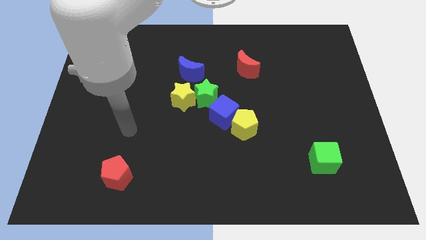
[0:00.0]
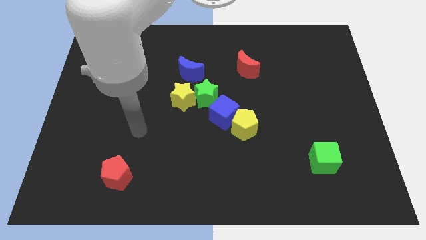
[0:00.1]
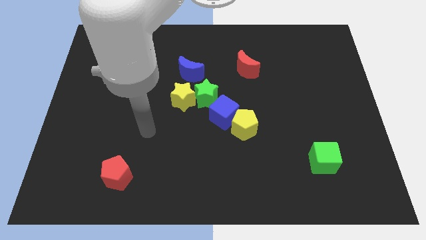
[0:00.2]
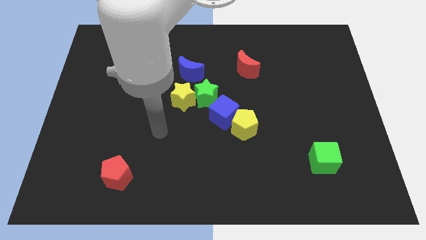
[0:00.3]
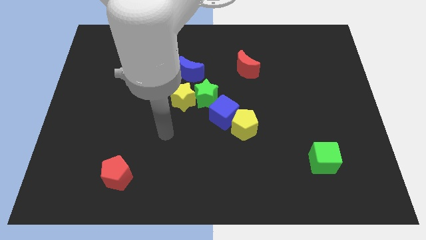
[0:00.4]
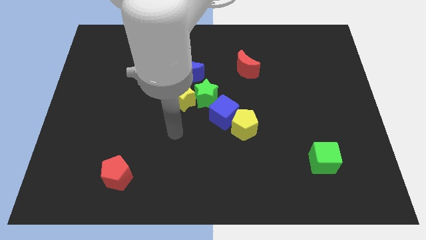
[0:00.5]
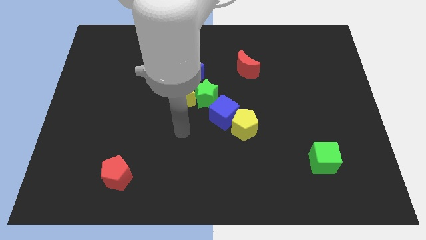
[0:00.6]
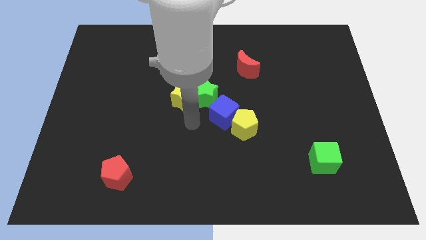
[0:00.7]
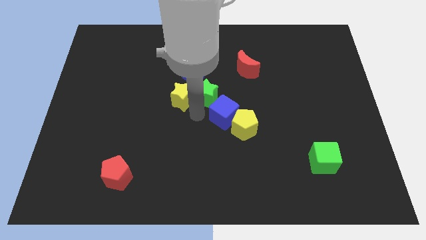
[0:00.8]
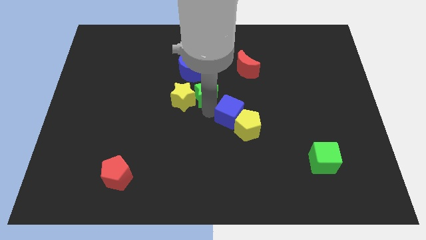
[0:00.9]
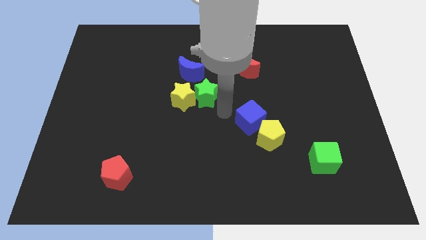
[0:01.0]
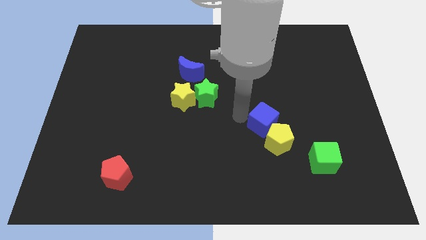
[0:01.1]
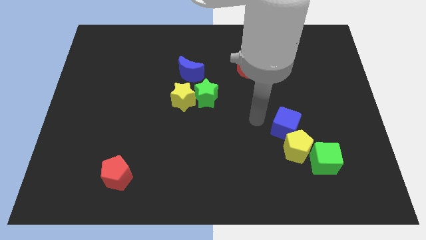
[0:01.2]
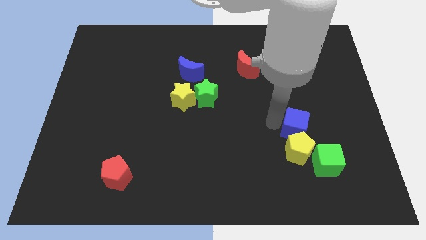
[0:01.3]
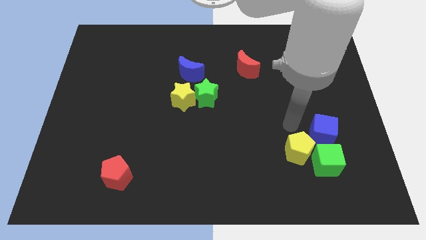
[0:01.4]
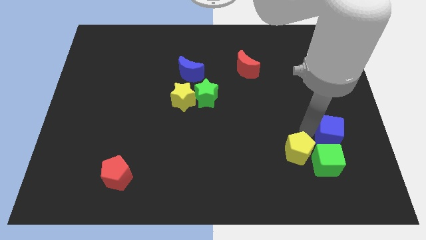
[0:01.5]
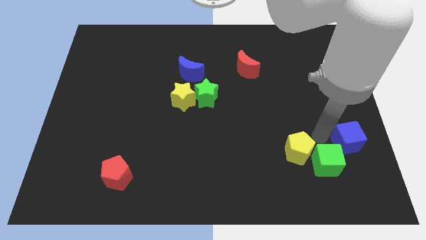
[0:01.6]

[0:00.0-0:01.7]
move the yellow pentagon away from the blue cube

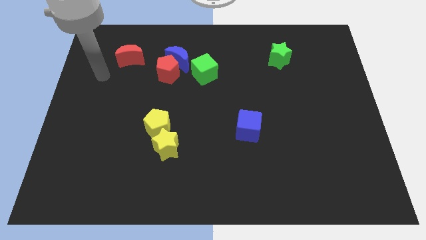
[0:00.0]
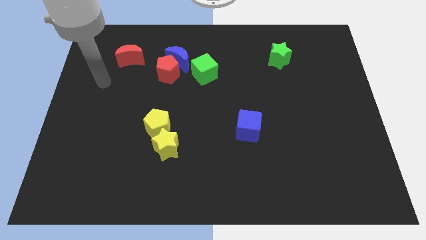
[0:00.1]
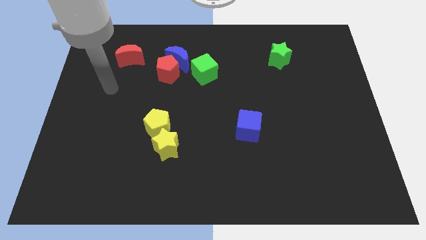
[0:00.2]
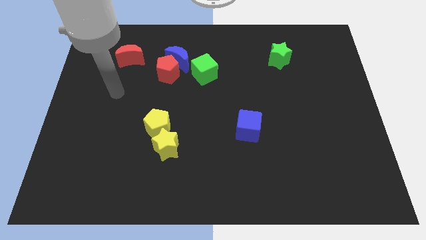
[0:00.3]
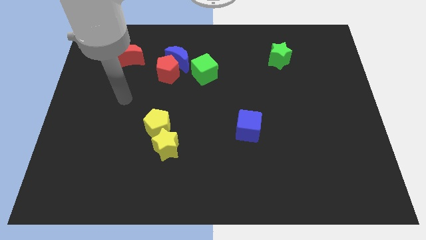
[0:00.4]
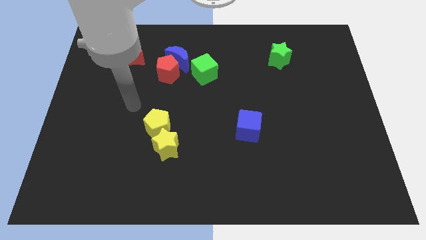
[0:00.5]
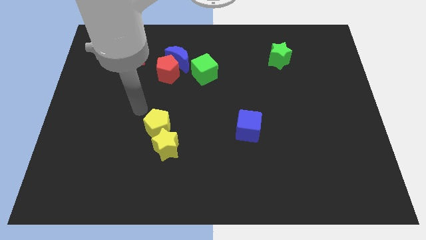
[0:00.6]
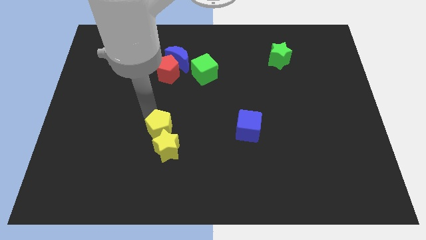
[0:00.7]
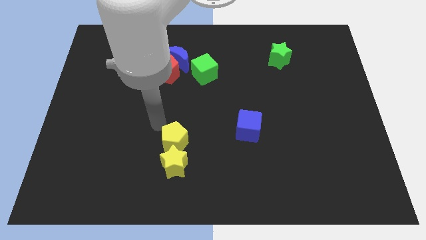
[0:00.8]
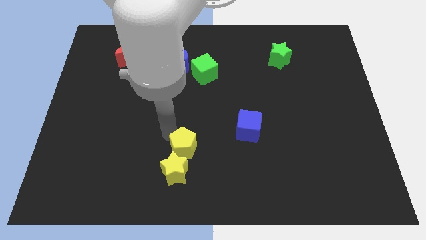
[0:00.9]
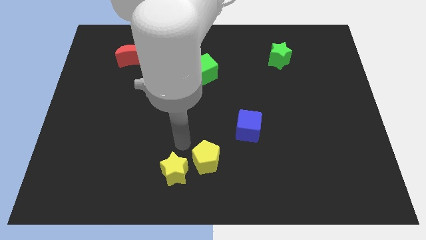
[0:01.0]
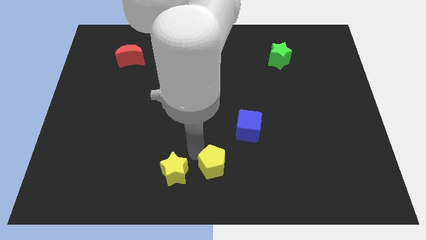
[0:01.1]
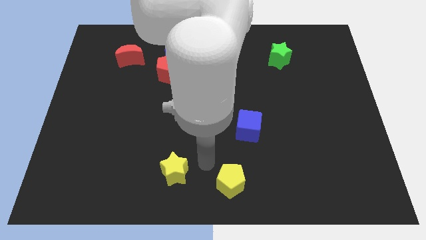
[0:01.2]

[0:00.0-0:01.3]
pull the yellow star apart from the yellow pentagon

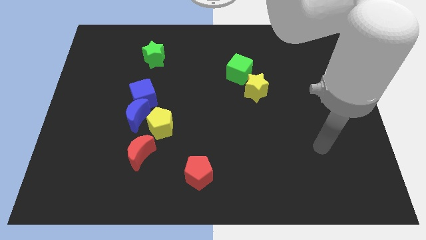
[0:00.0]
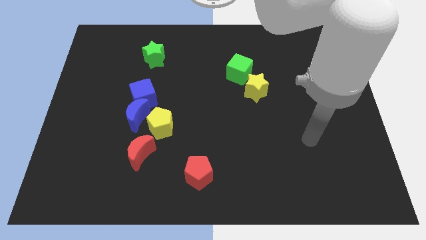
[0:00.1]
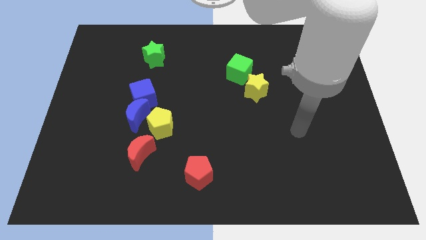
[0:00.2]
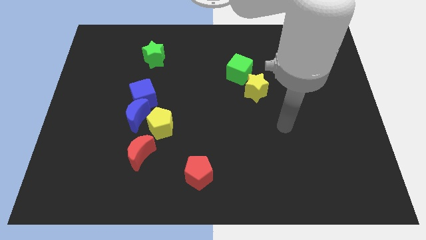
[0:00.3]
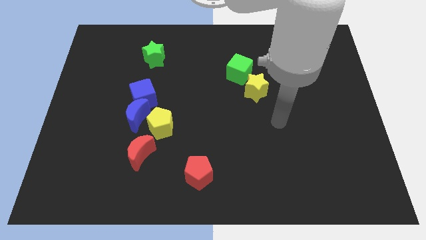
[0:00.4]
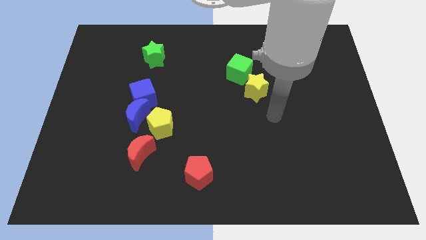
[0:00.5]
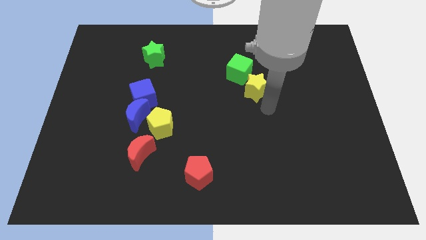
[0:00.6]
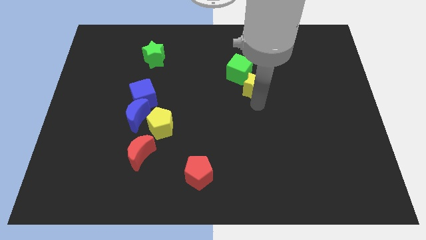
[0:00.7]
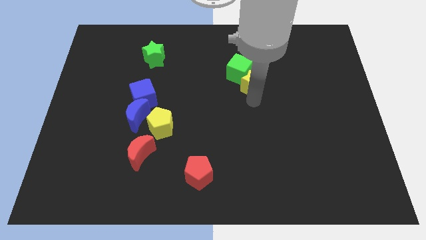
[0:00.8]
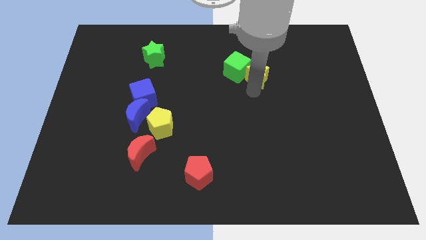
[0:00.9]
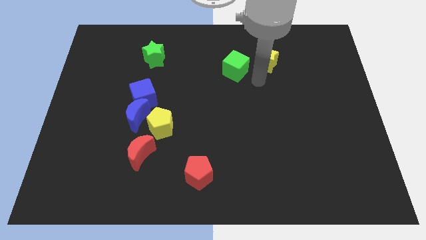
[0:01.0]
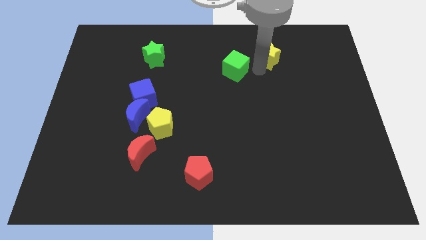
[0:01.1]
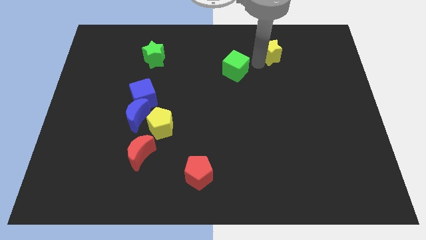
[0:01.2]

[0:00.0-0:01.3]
move the green cube away from the yellow star

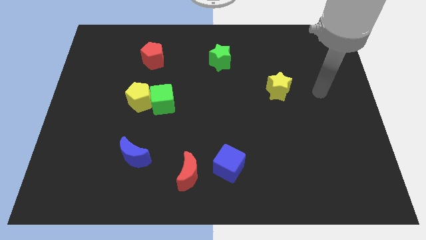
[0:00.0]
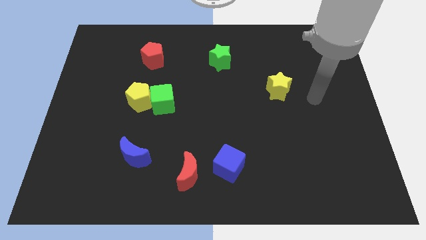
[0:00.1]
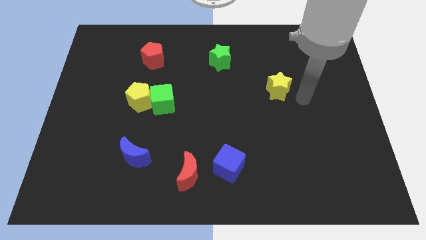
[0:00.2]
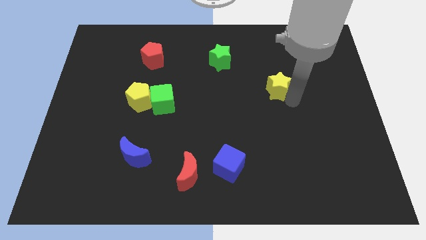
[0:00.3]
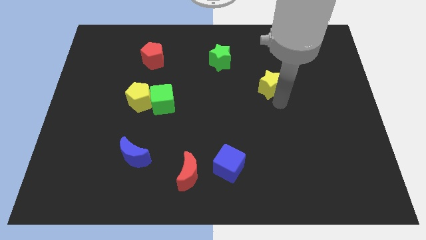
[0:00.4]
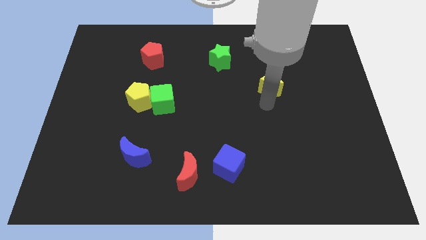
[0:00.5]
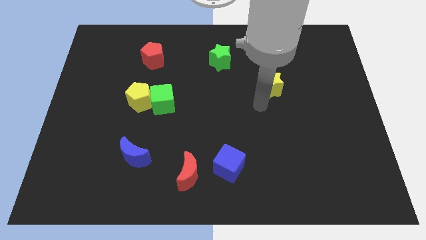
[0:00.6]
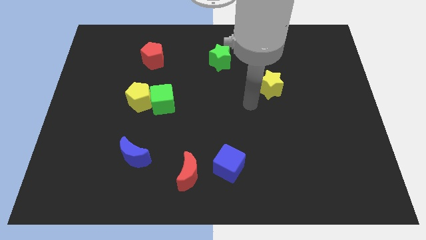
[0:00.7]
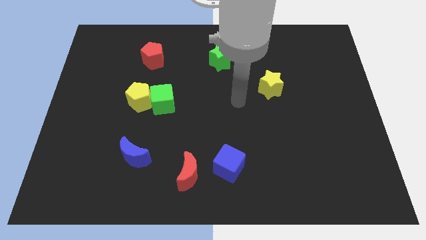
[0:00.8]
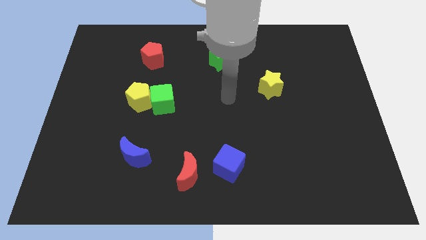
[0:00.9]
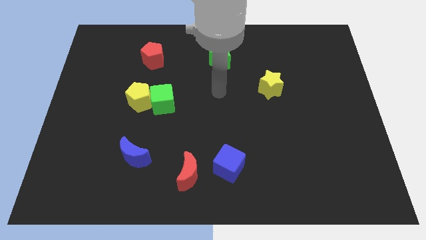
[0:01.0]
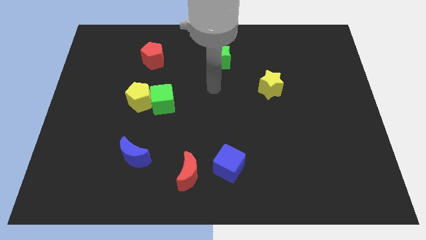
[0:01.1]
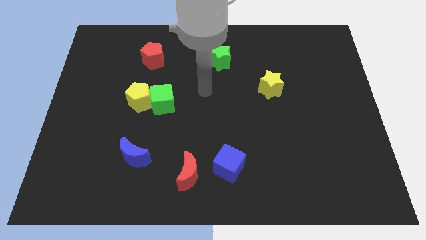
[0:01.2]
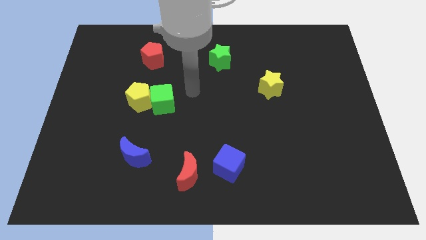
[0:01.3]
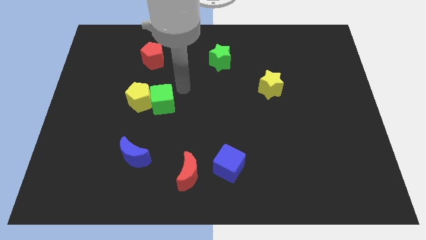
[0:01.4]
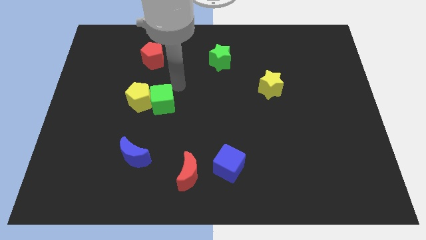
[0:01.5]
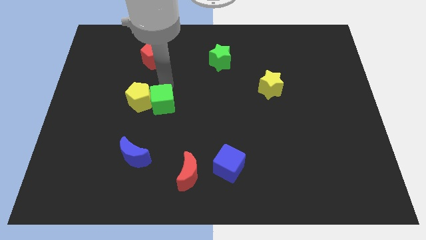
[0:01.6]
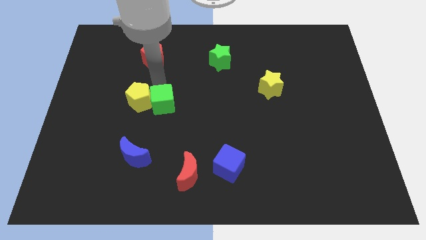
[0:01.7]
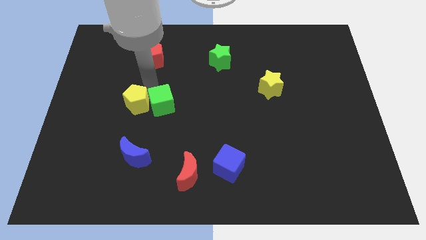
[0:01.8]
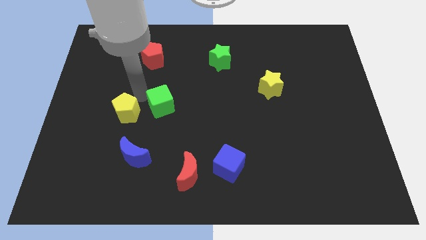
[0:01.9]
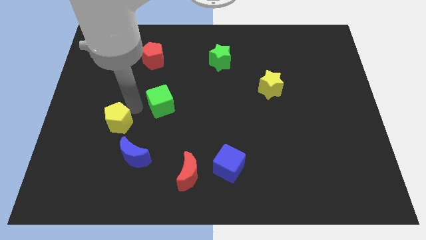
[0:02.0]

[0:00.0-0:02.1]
separate the green cube from the yellow pentagon

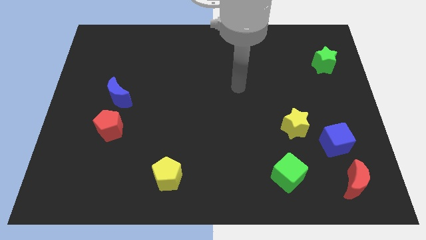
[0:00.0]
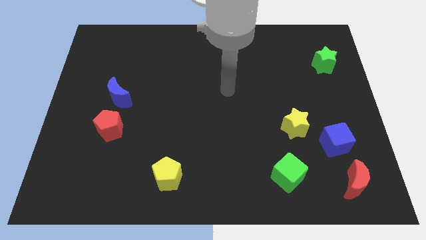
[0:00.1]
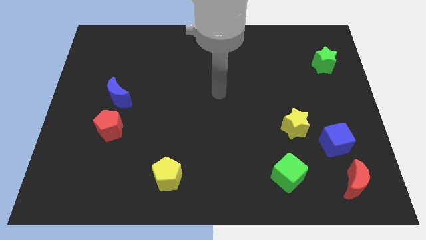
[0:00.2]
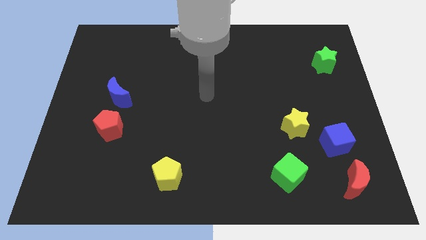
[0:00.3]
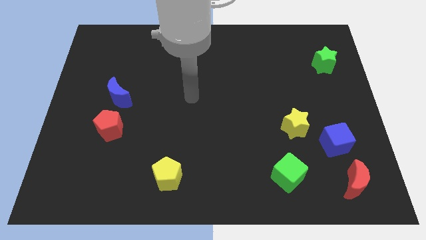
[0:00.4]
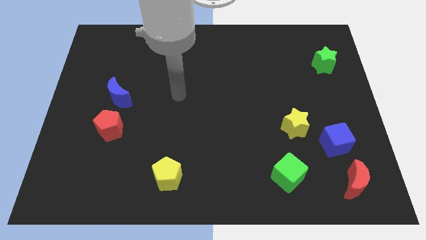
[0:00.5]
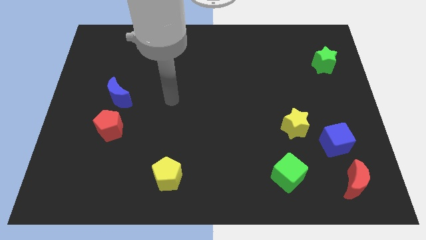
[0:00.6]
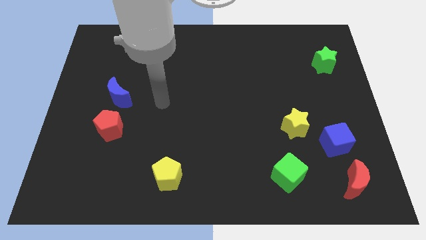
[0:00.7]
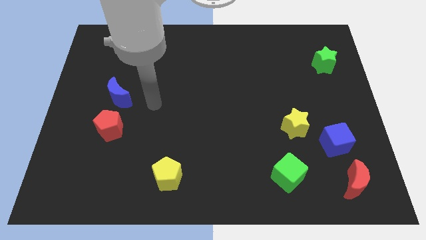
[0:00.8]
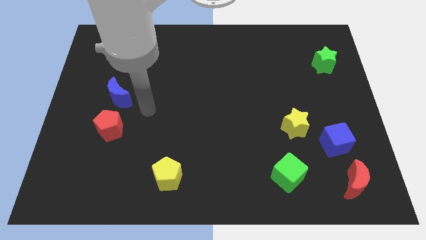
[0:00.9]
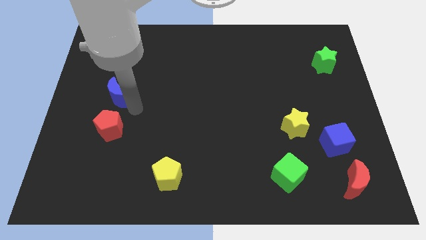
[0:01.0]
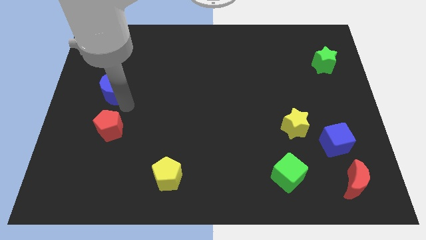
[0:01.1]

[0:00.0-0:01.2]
separate the red pentagon from the blue moon

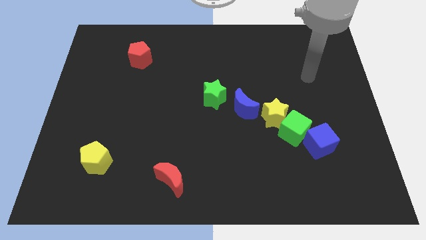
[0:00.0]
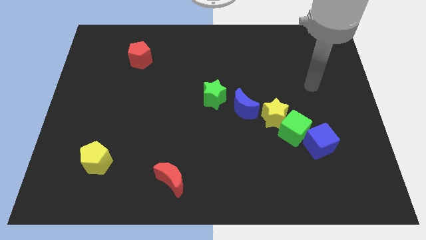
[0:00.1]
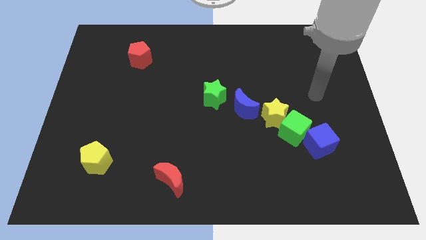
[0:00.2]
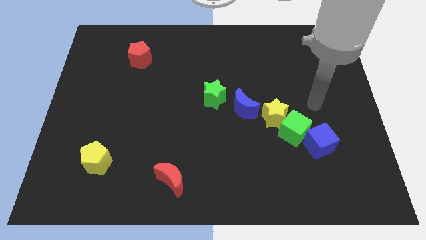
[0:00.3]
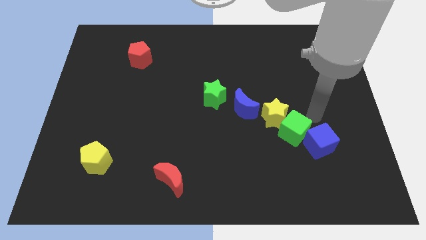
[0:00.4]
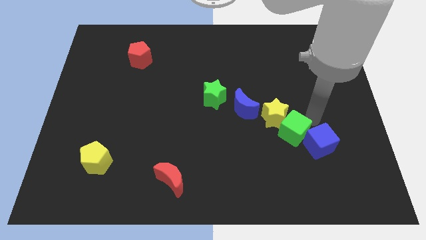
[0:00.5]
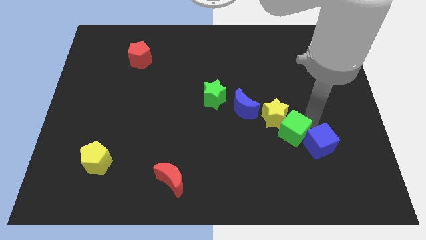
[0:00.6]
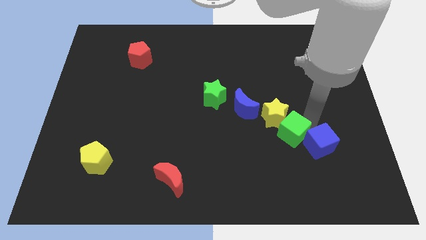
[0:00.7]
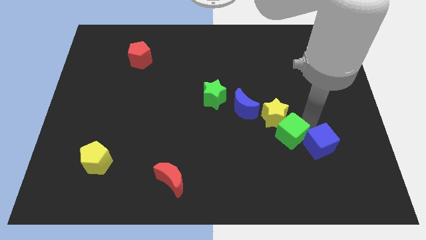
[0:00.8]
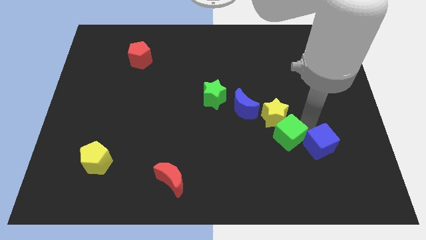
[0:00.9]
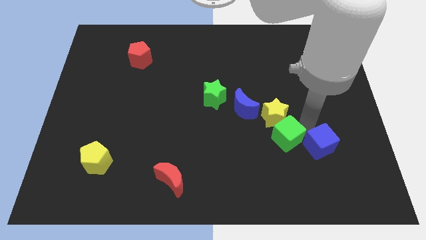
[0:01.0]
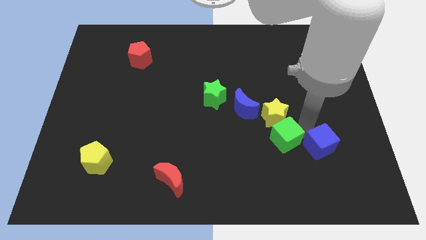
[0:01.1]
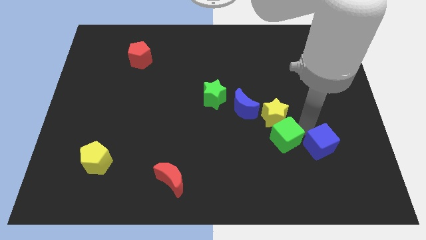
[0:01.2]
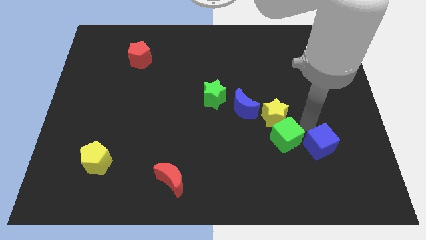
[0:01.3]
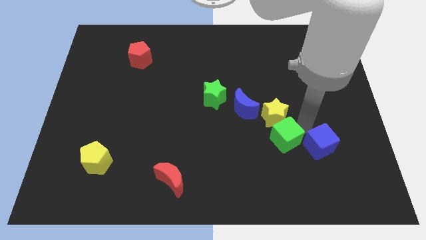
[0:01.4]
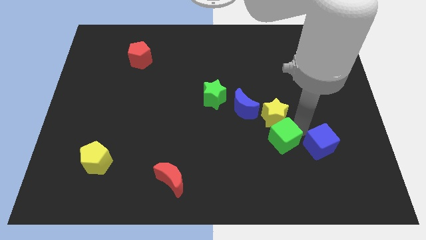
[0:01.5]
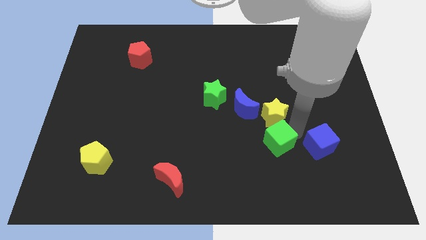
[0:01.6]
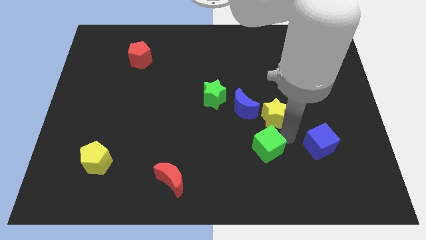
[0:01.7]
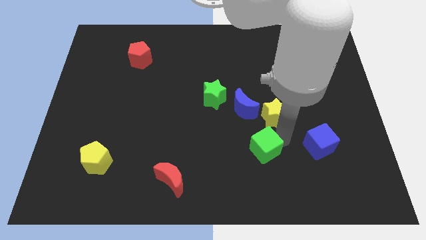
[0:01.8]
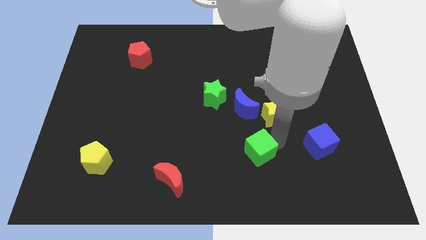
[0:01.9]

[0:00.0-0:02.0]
separate the green cube from the yellow star and blue cube
